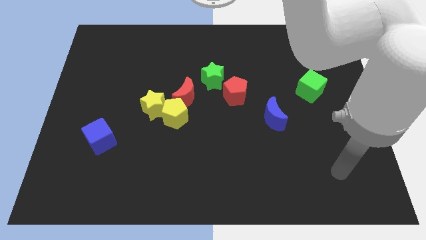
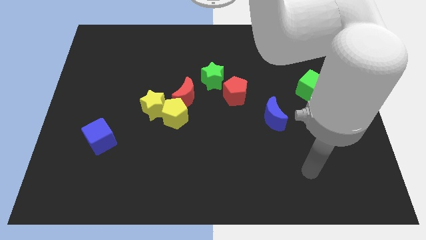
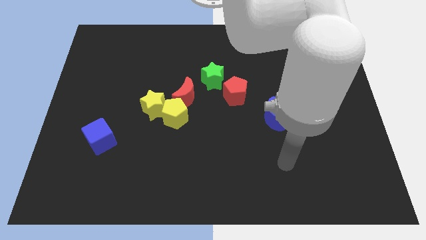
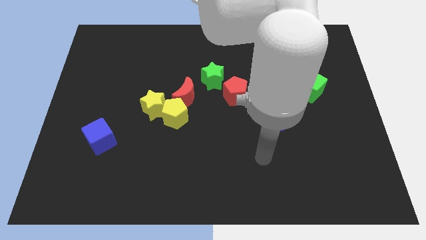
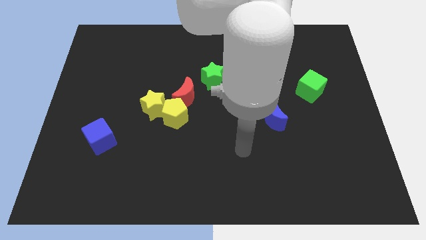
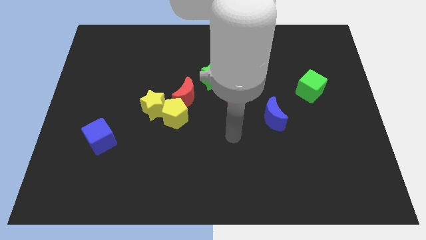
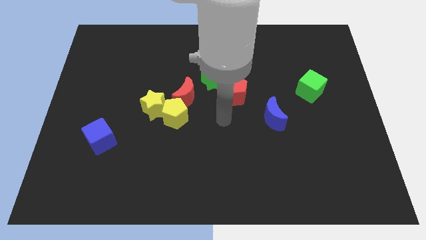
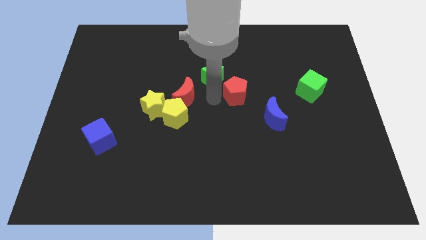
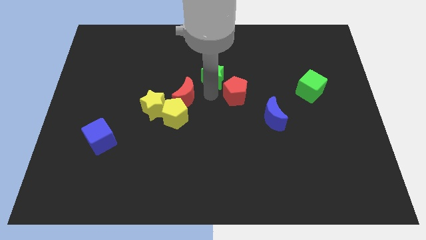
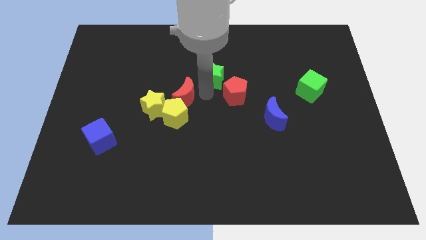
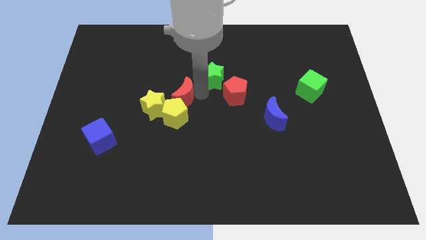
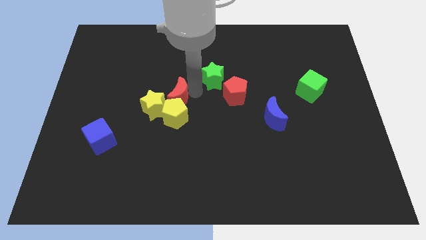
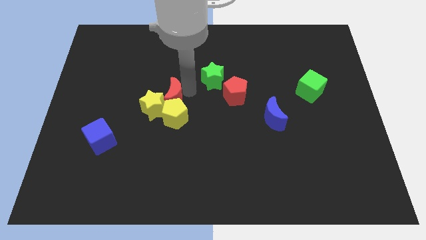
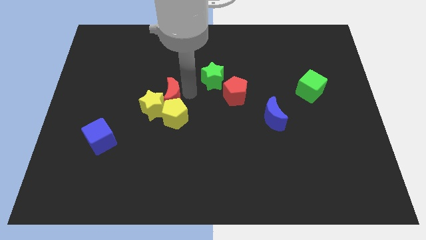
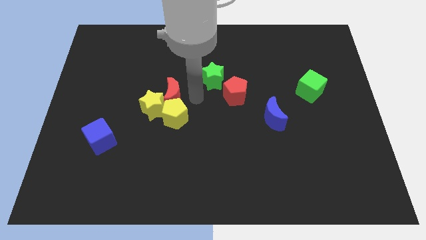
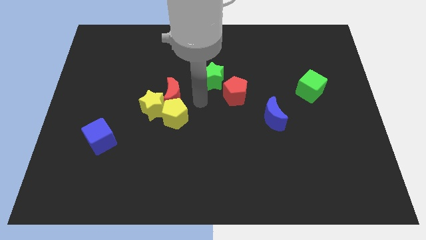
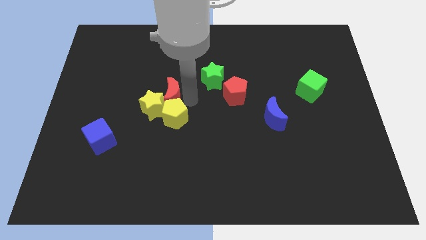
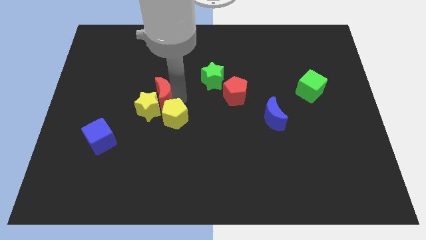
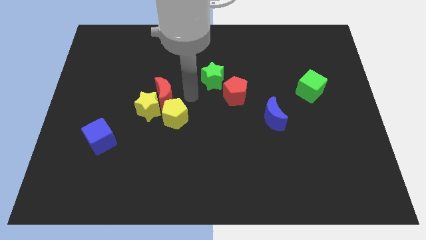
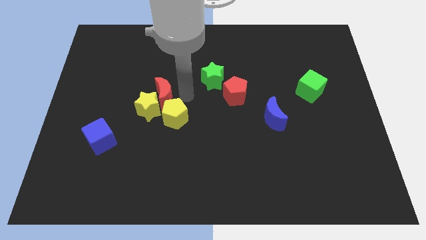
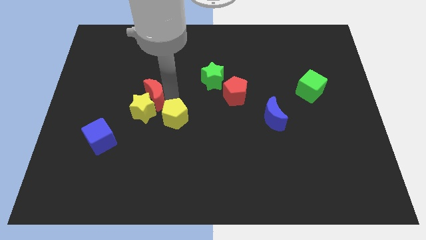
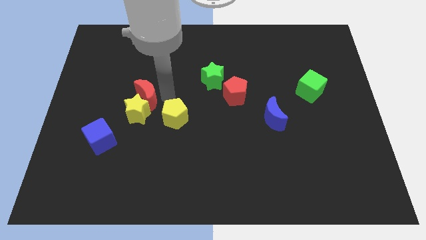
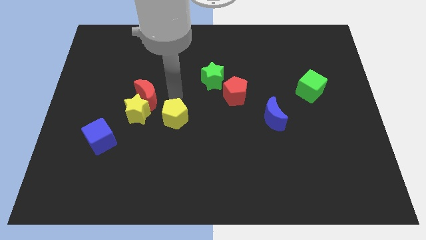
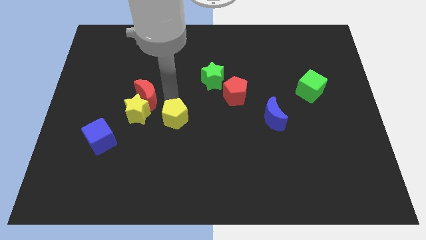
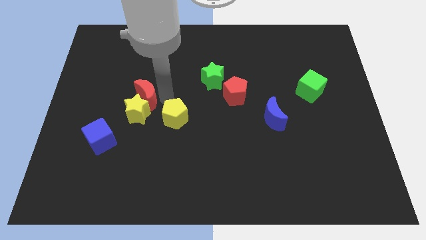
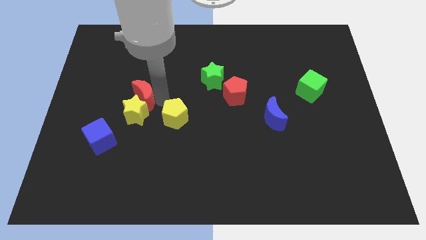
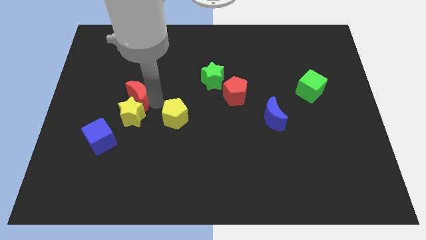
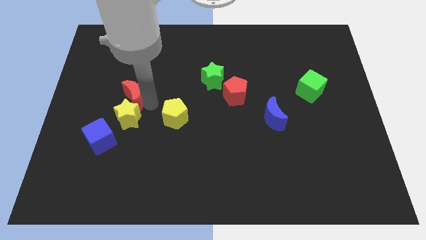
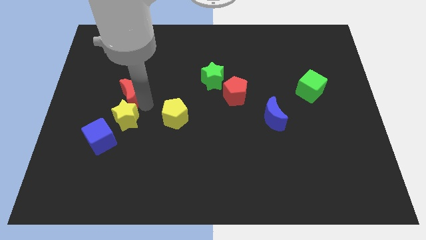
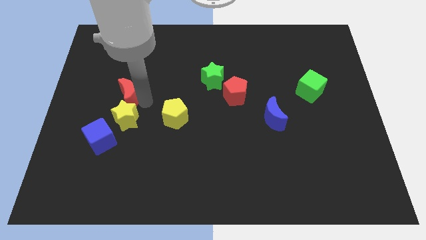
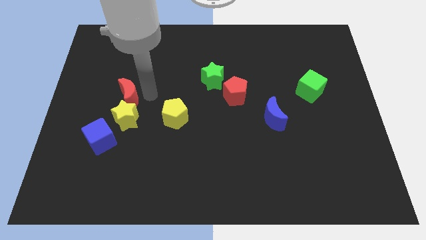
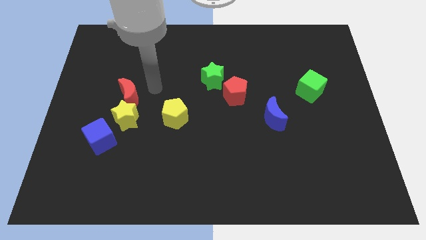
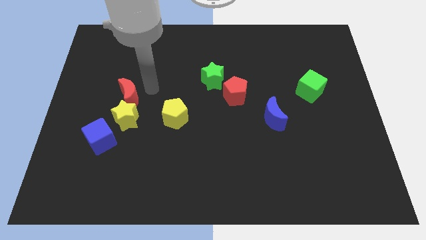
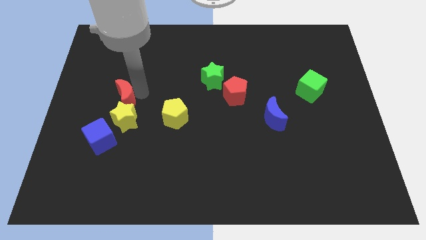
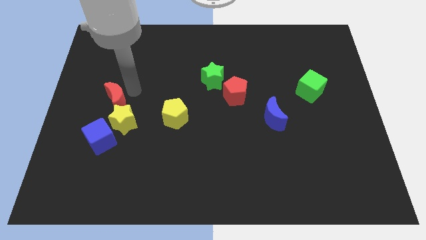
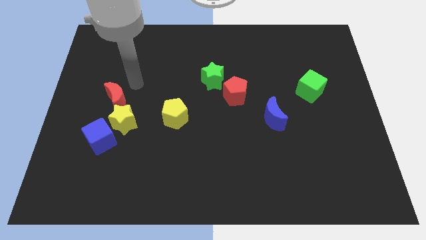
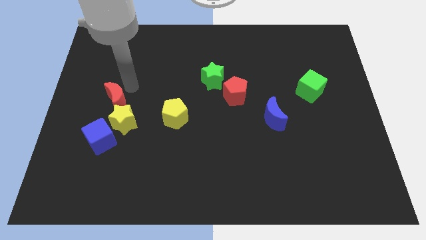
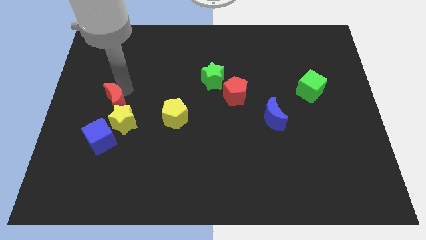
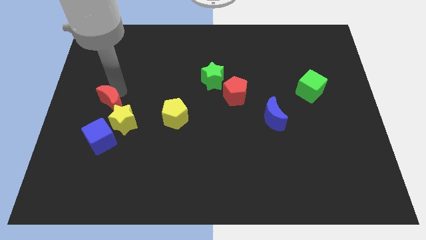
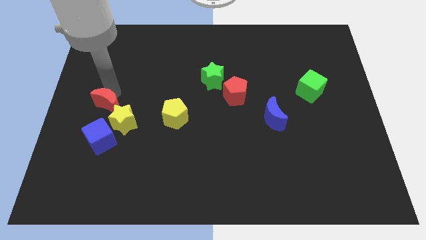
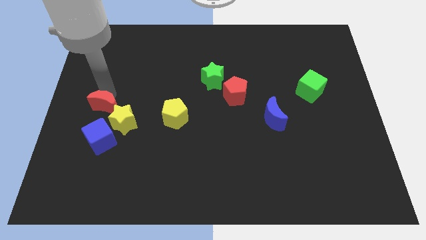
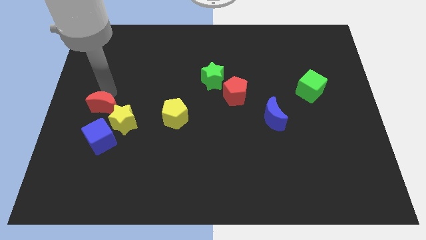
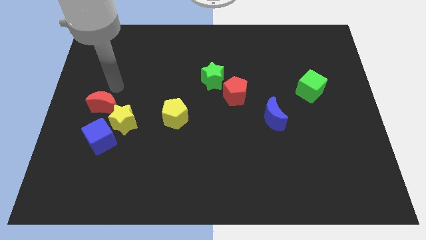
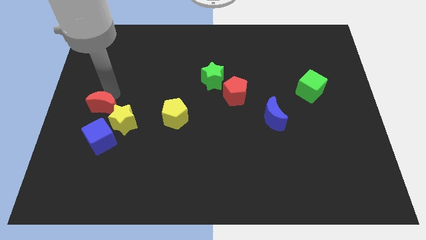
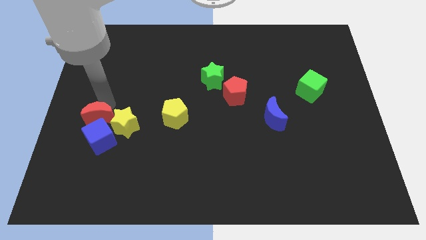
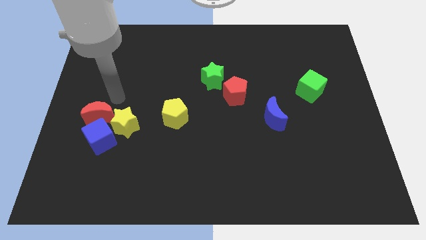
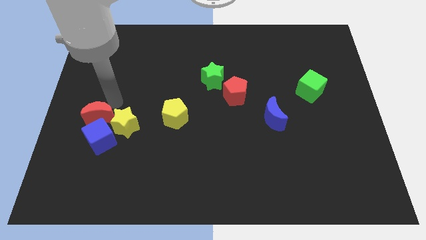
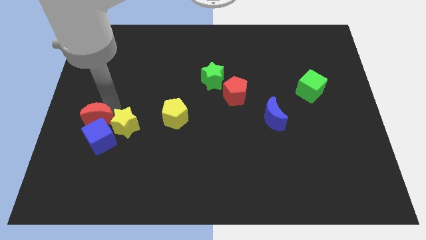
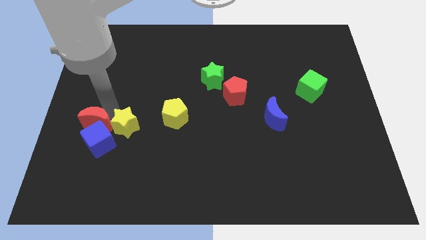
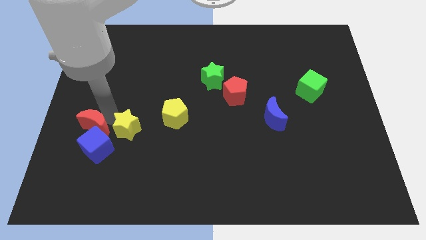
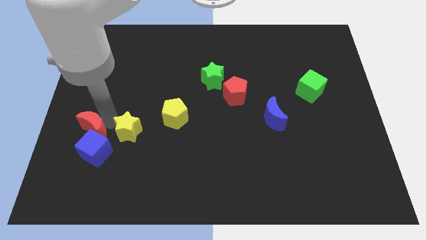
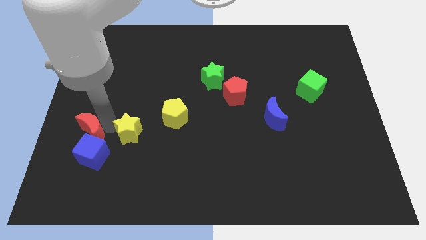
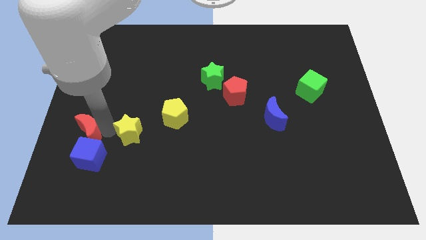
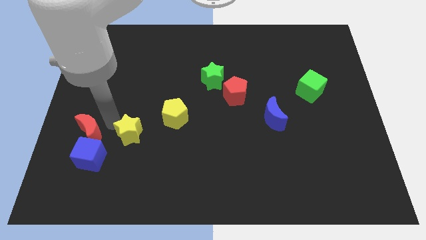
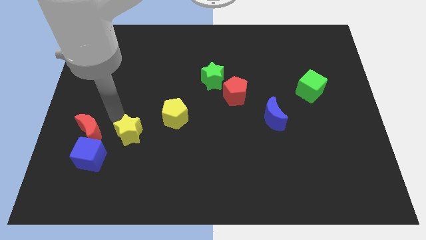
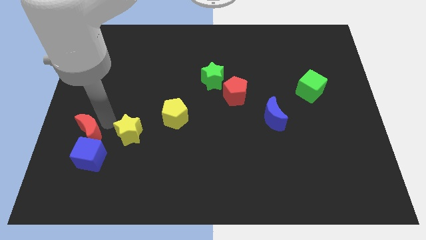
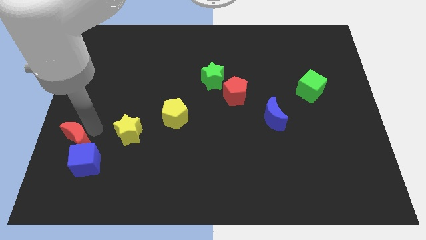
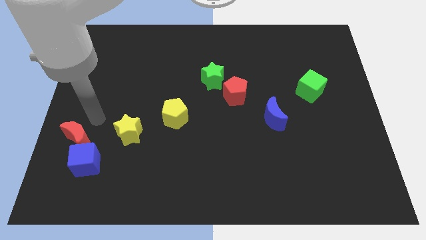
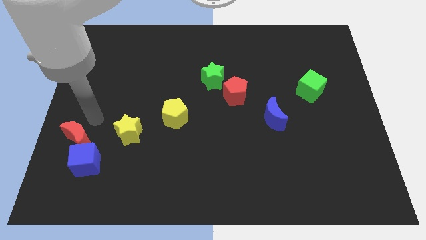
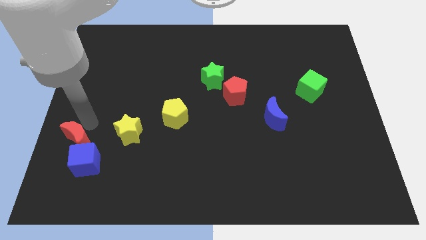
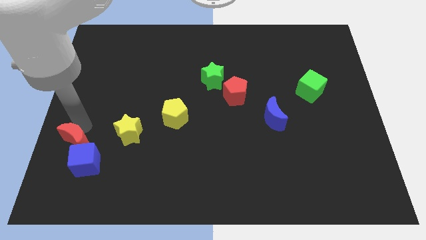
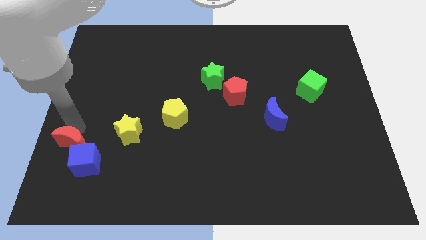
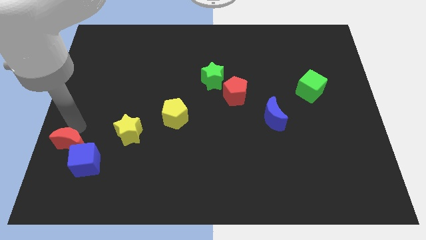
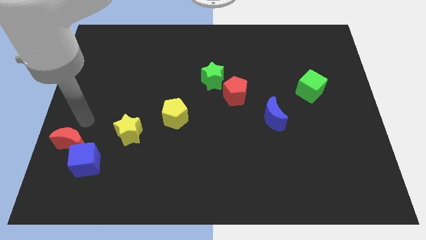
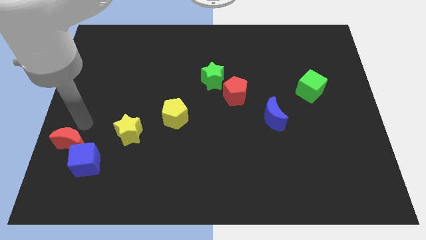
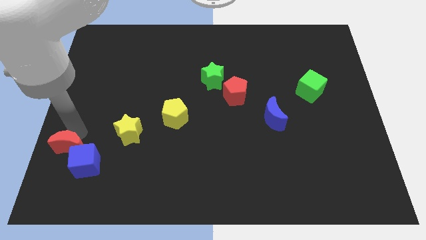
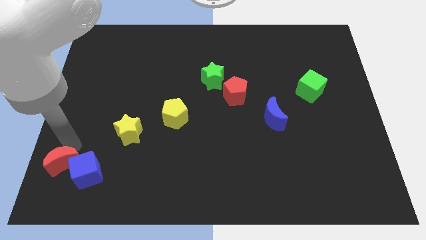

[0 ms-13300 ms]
push the red moon to the lower left corner

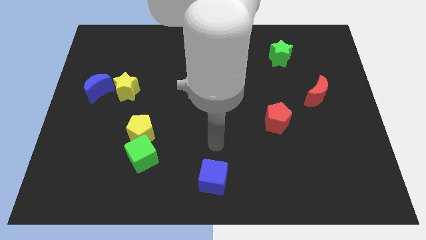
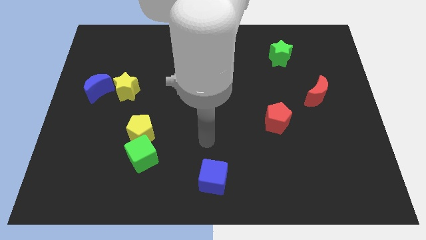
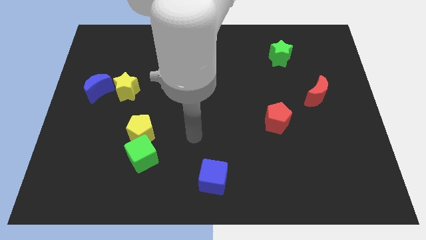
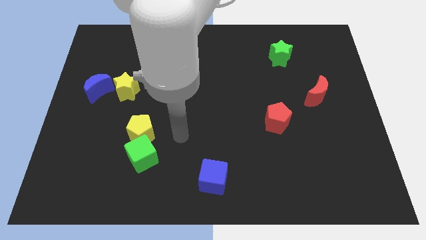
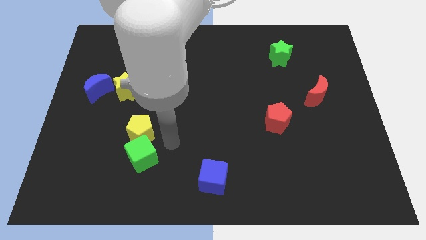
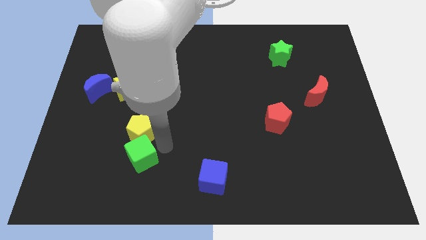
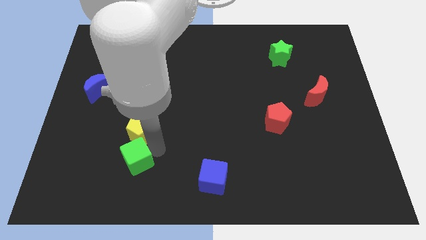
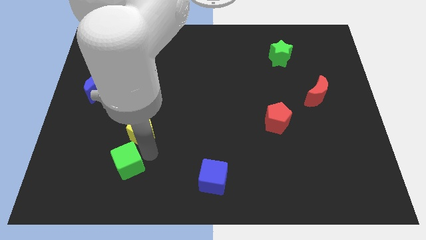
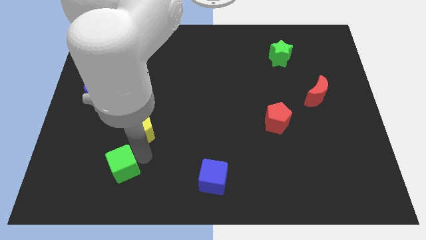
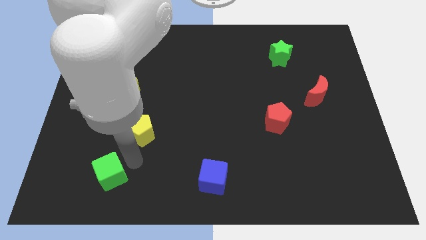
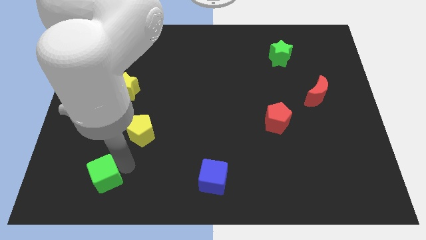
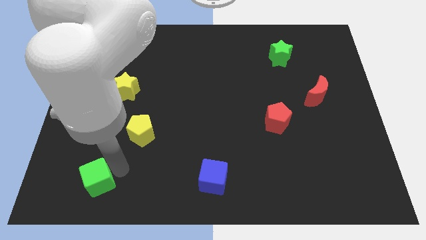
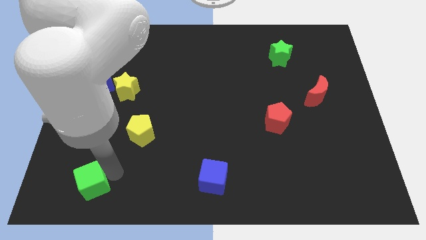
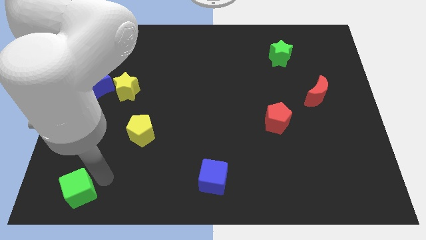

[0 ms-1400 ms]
slide the green cube to the bottom left of the board
